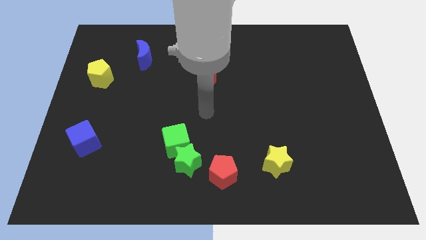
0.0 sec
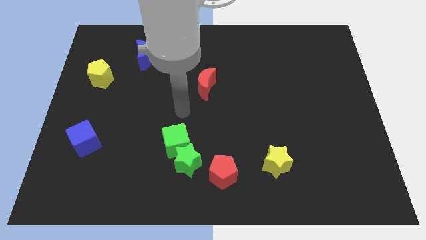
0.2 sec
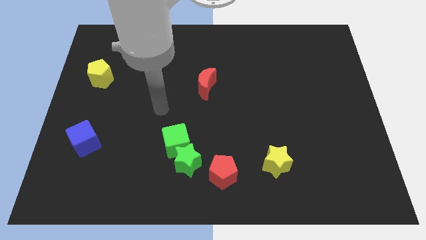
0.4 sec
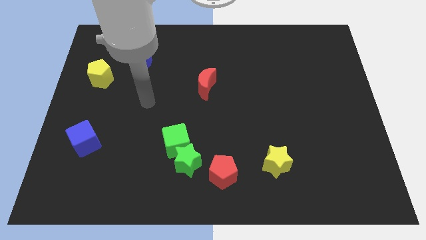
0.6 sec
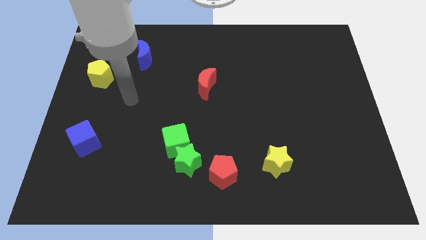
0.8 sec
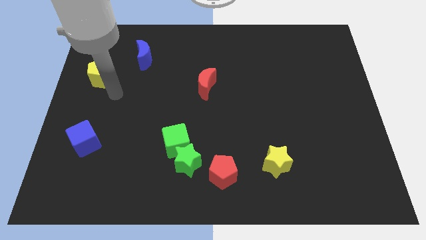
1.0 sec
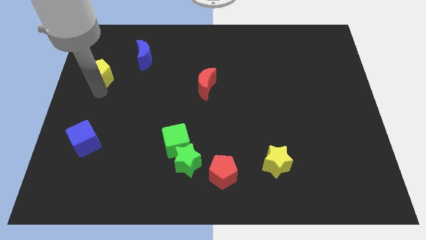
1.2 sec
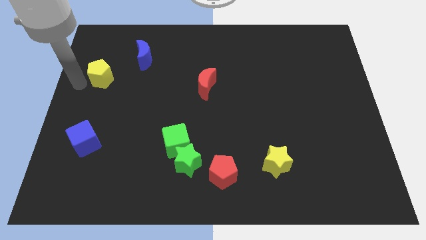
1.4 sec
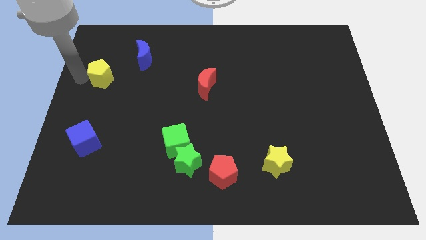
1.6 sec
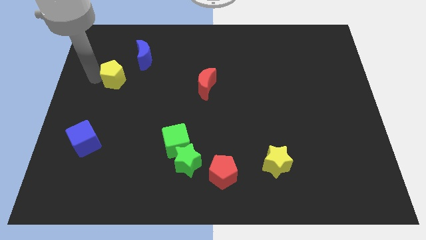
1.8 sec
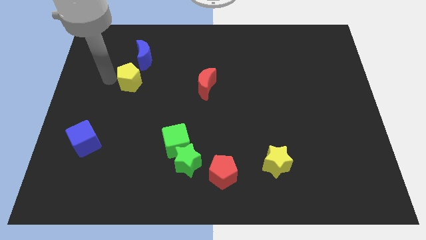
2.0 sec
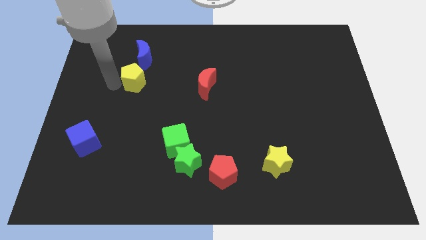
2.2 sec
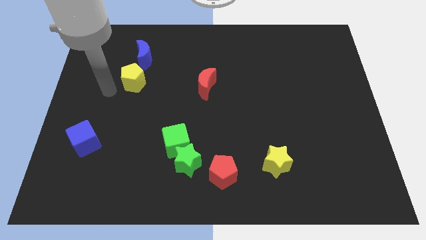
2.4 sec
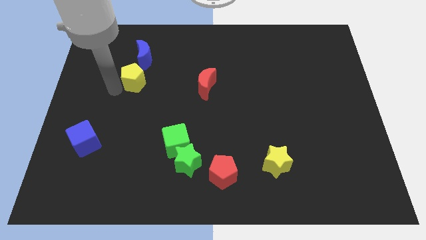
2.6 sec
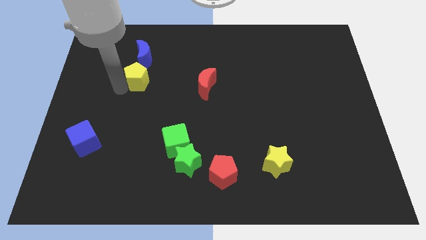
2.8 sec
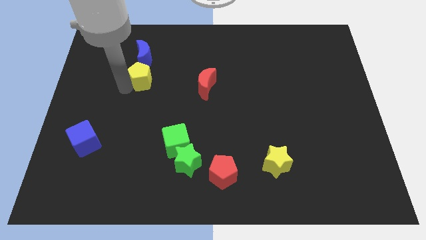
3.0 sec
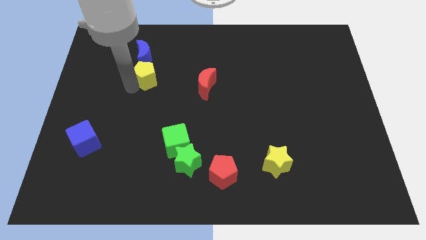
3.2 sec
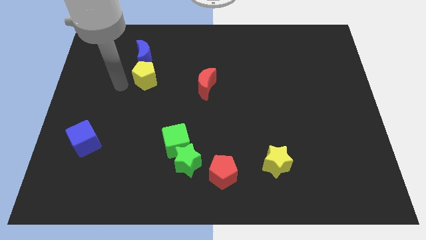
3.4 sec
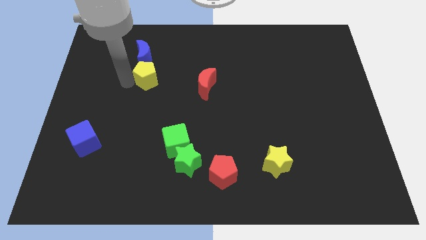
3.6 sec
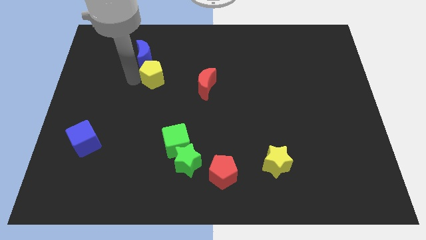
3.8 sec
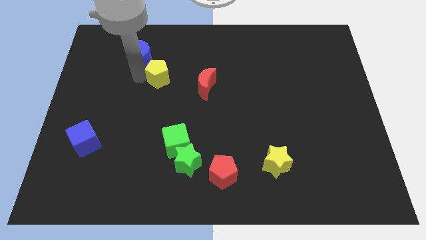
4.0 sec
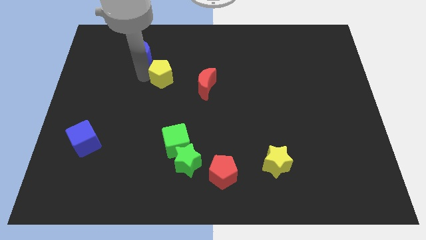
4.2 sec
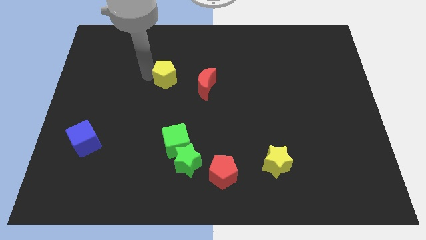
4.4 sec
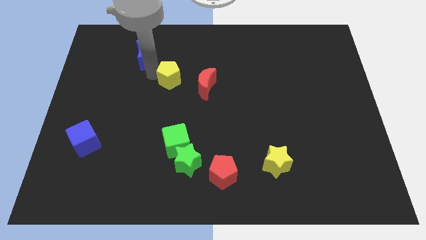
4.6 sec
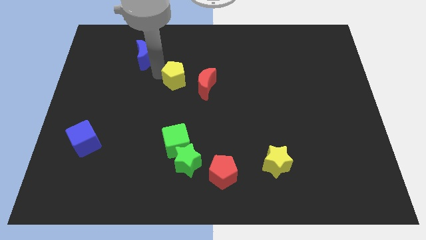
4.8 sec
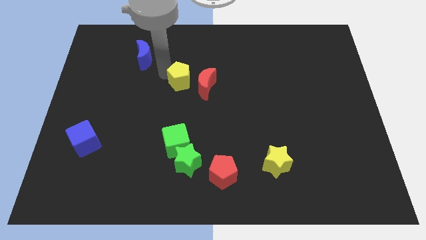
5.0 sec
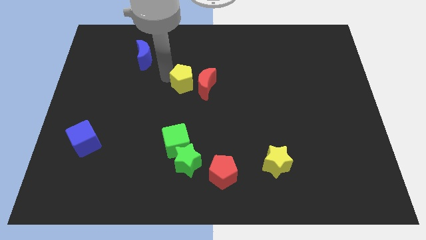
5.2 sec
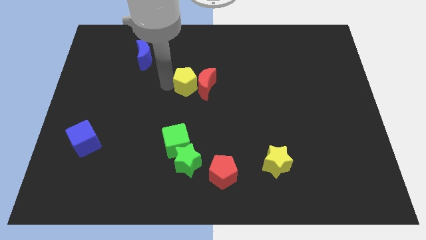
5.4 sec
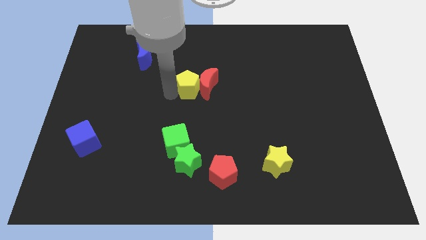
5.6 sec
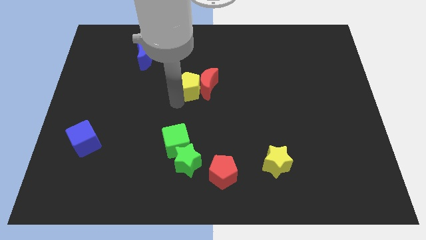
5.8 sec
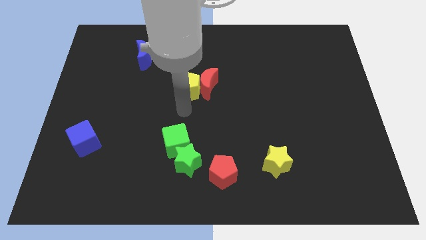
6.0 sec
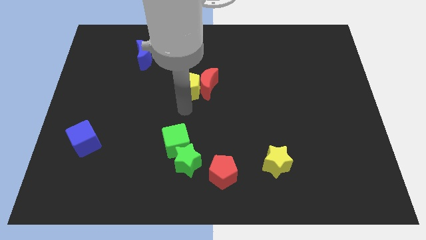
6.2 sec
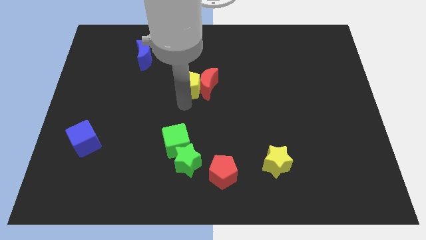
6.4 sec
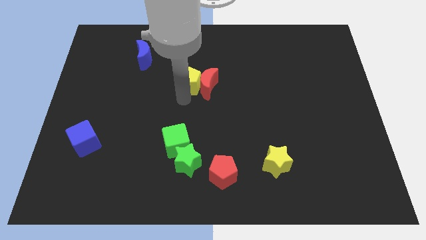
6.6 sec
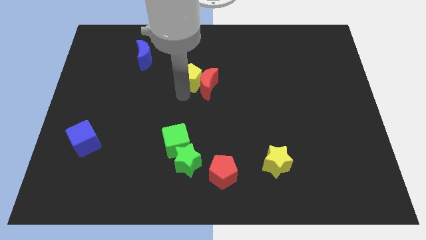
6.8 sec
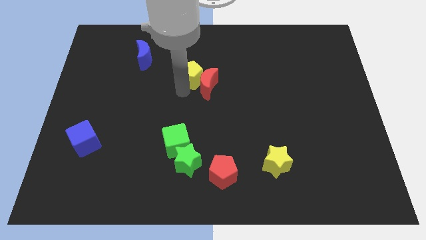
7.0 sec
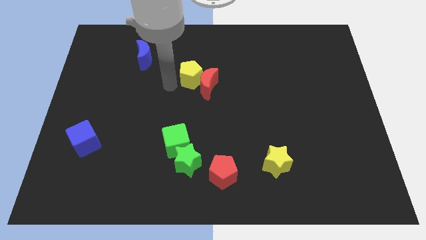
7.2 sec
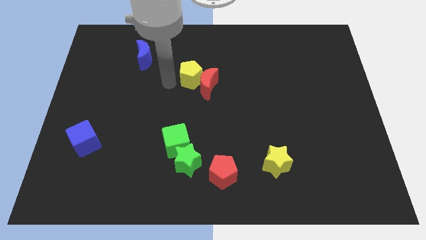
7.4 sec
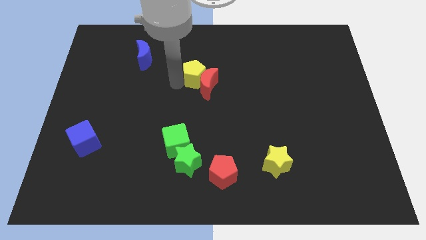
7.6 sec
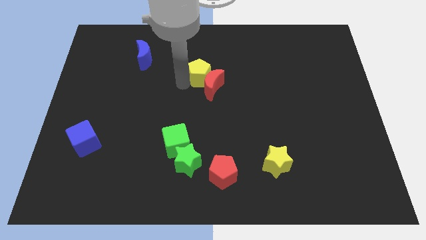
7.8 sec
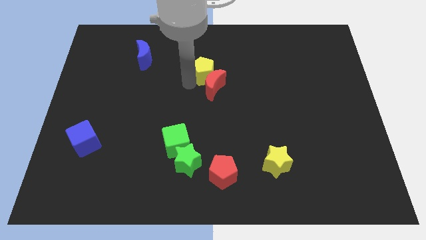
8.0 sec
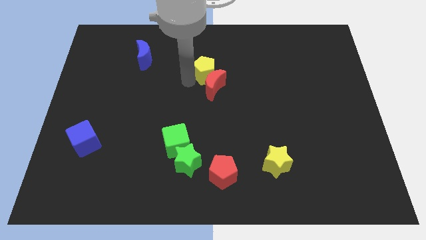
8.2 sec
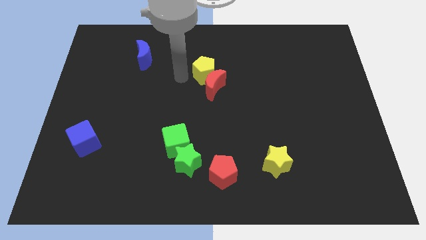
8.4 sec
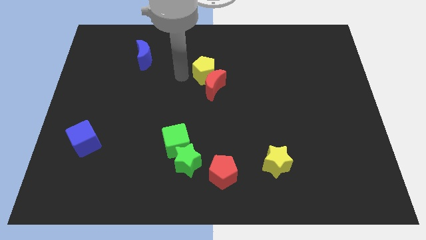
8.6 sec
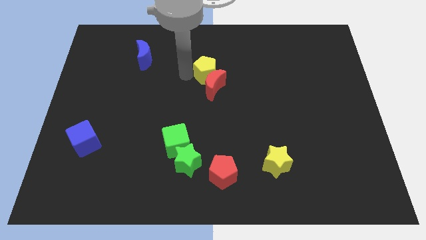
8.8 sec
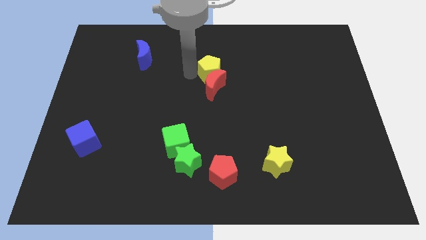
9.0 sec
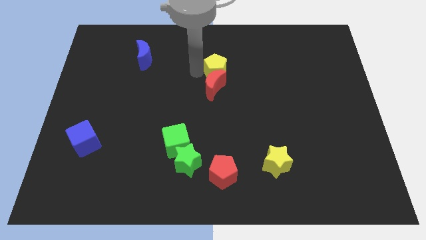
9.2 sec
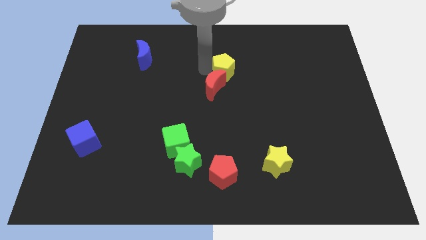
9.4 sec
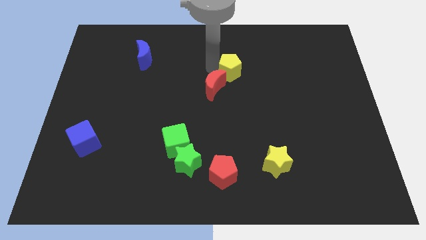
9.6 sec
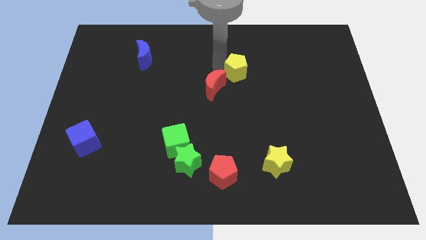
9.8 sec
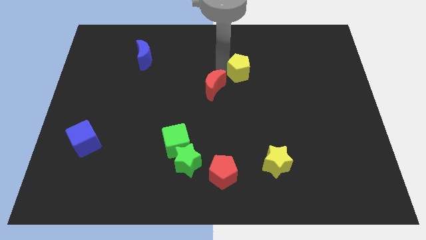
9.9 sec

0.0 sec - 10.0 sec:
slide the yellow pentagon right of the red moon

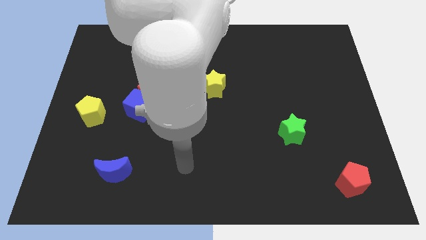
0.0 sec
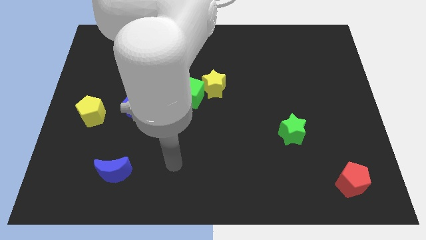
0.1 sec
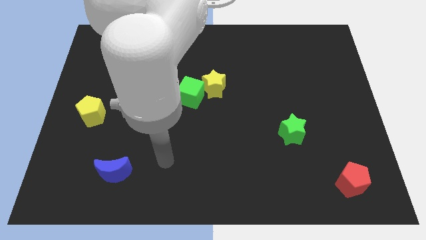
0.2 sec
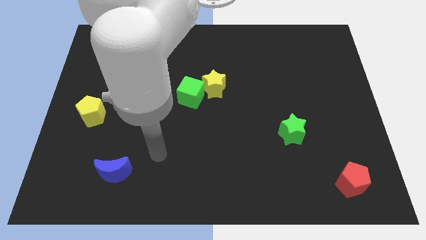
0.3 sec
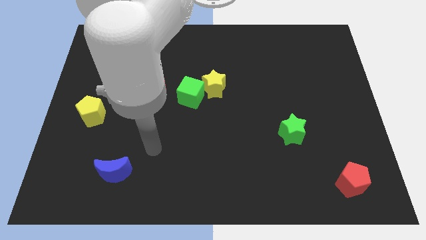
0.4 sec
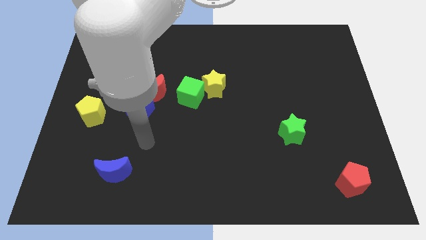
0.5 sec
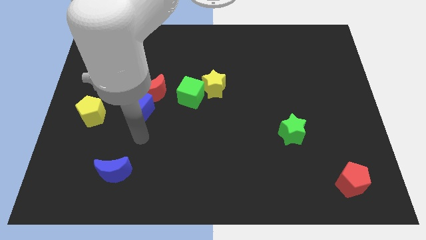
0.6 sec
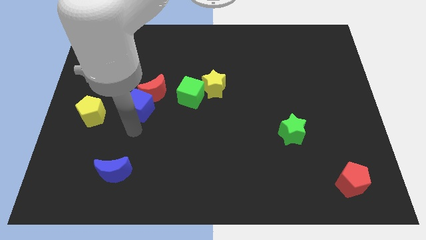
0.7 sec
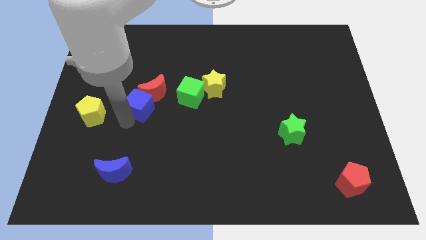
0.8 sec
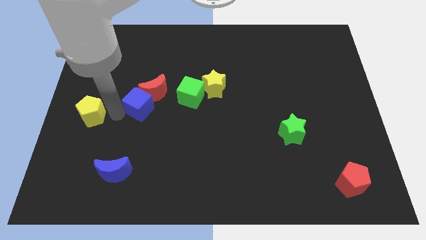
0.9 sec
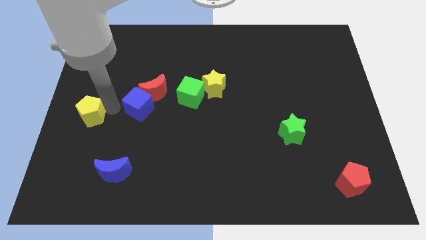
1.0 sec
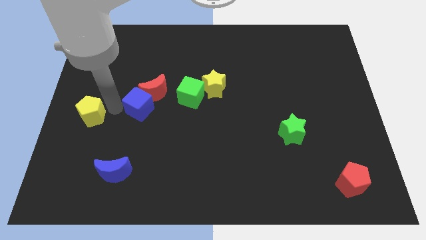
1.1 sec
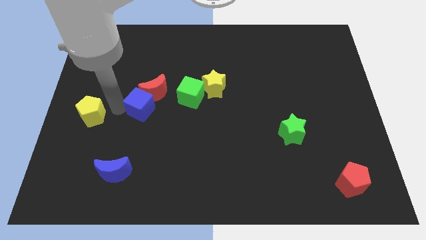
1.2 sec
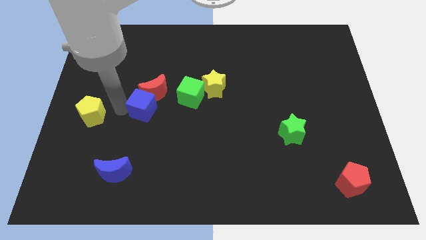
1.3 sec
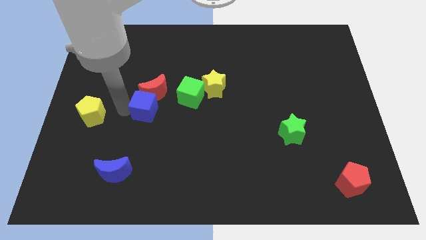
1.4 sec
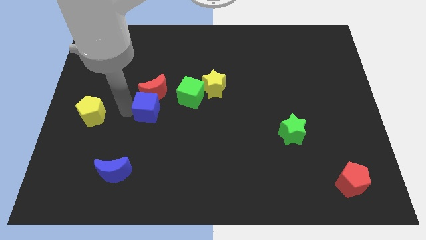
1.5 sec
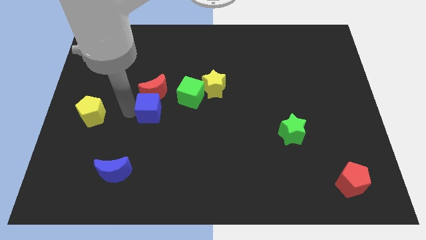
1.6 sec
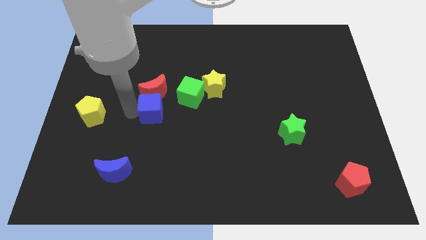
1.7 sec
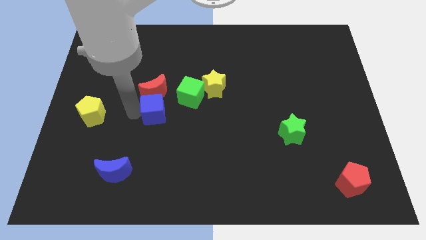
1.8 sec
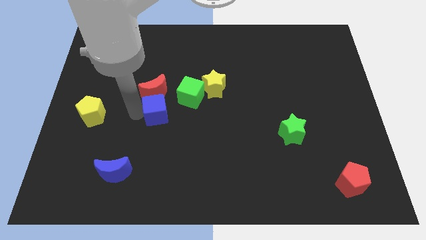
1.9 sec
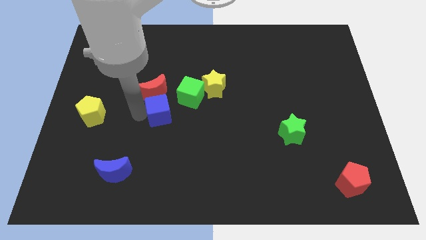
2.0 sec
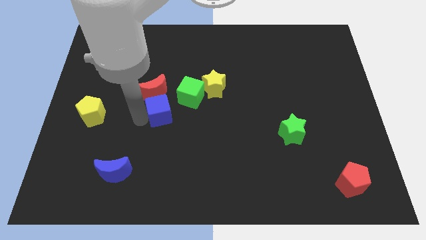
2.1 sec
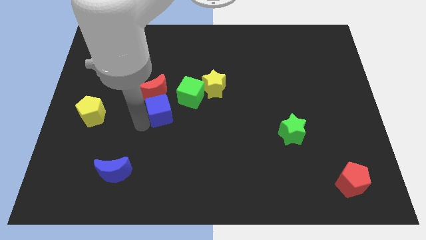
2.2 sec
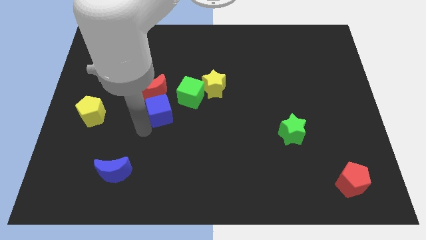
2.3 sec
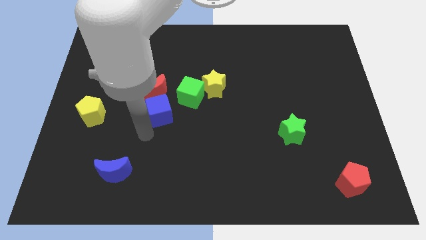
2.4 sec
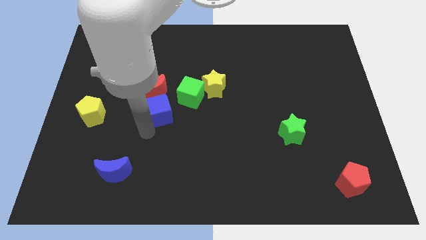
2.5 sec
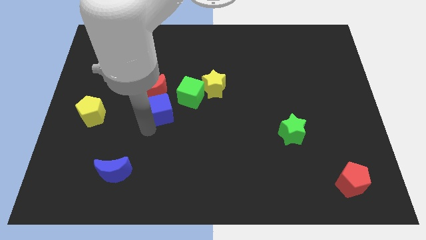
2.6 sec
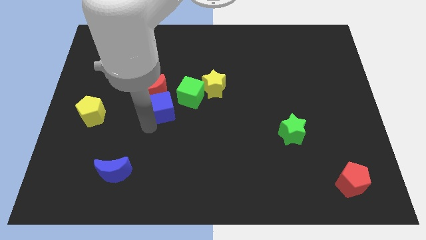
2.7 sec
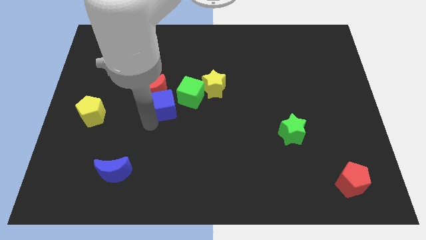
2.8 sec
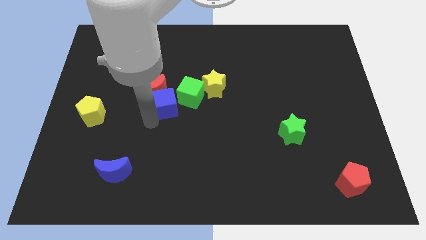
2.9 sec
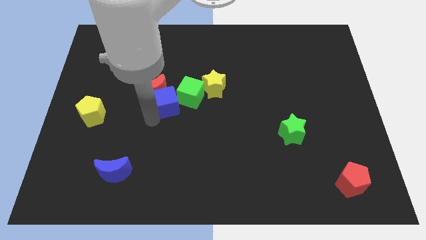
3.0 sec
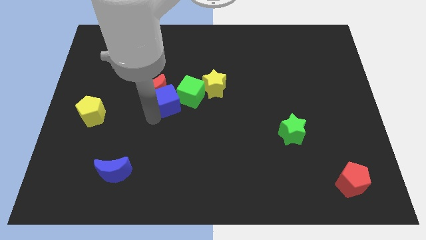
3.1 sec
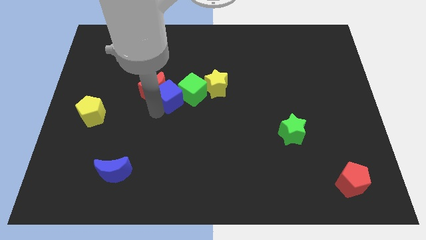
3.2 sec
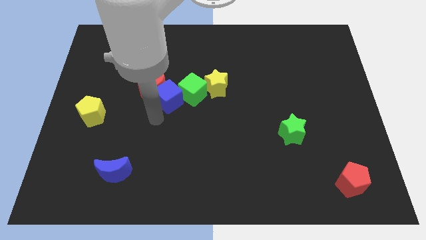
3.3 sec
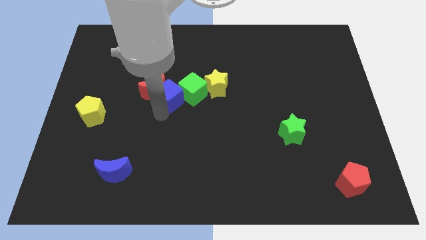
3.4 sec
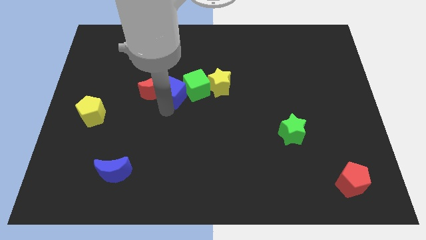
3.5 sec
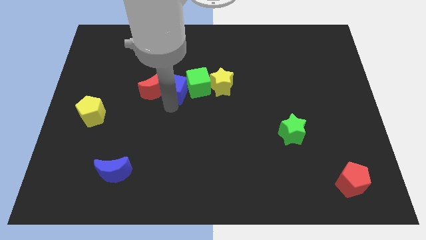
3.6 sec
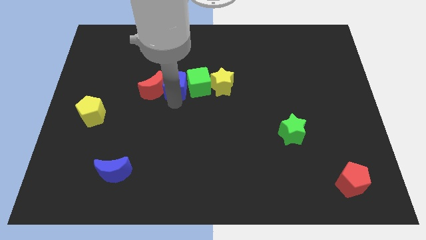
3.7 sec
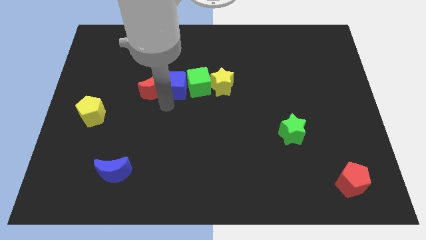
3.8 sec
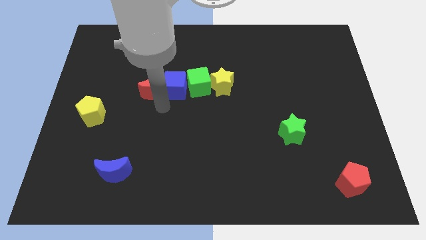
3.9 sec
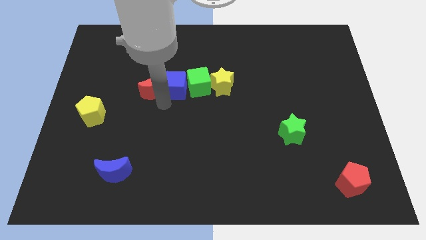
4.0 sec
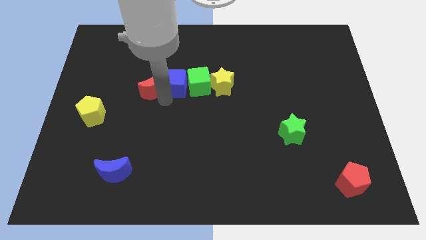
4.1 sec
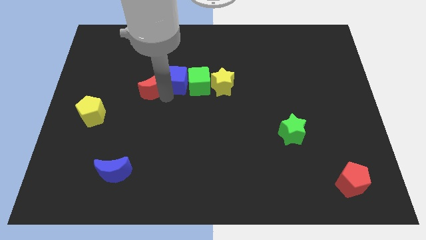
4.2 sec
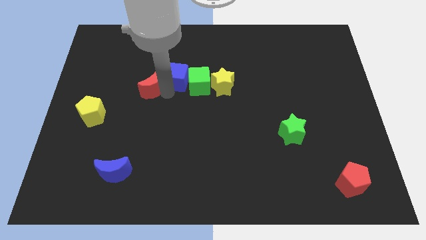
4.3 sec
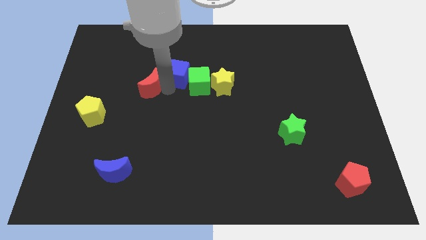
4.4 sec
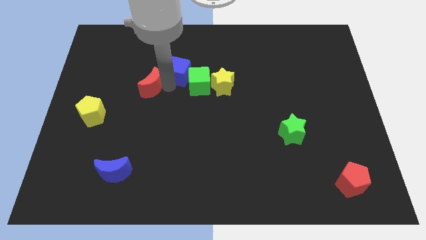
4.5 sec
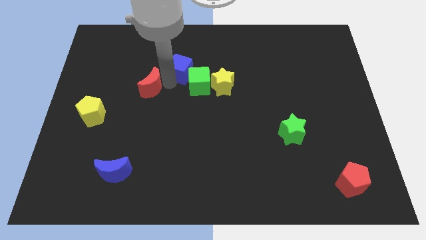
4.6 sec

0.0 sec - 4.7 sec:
move the blue cube to the top of the green cube
